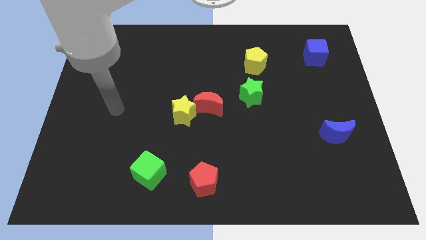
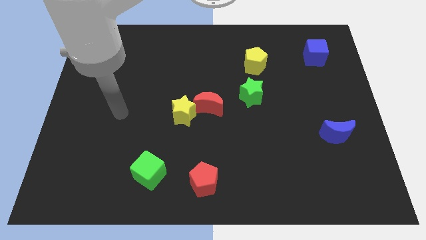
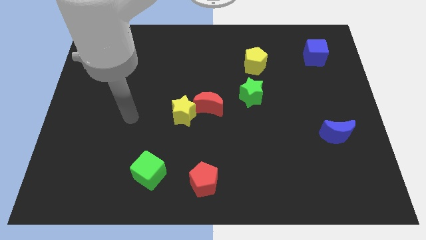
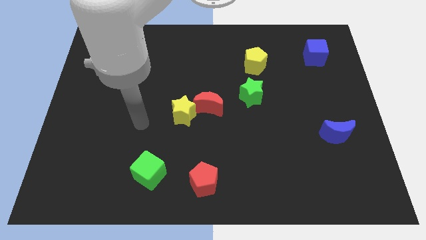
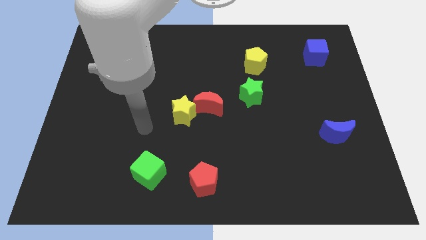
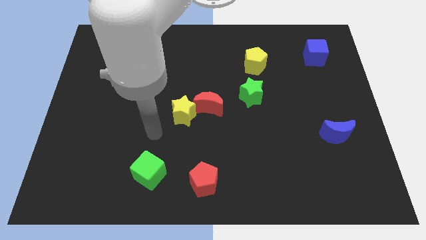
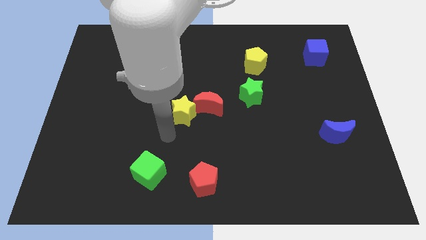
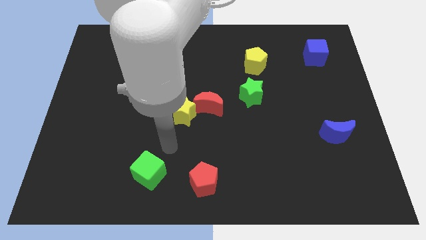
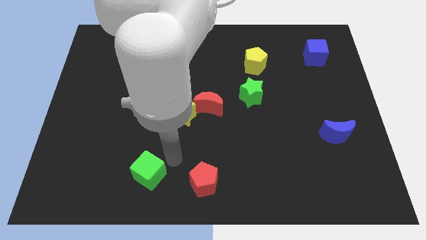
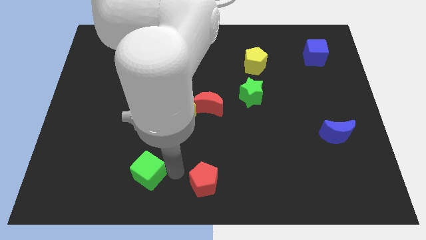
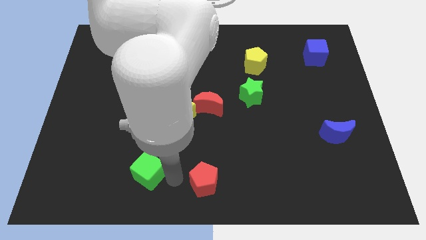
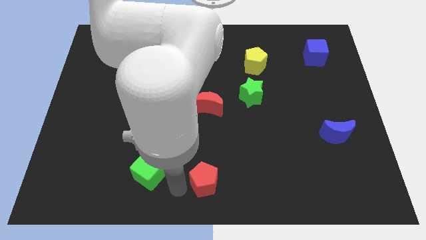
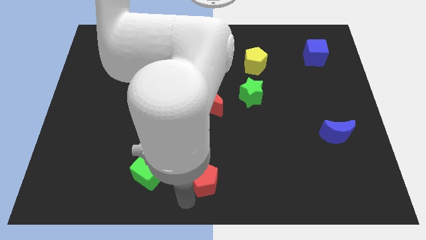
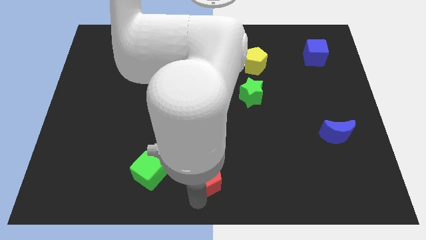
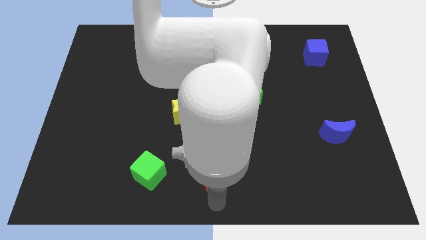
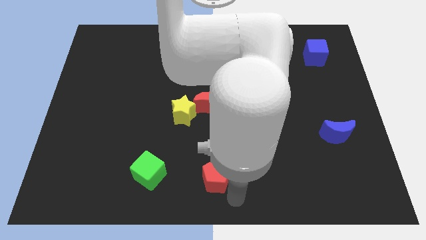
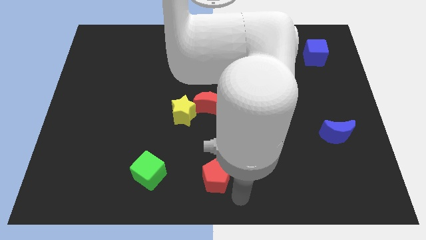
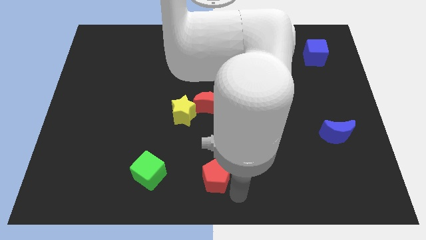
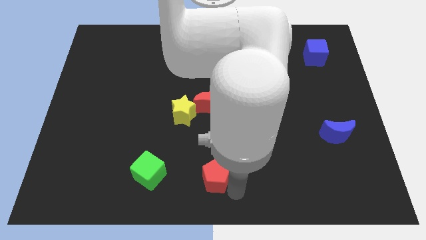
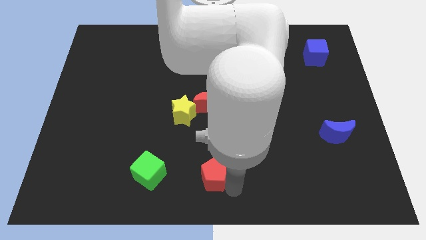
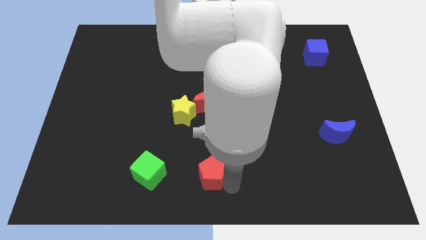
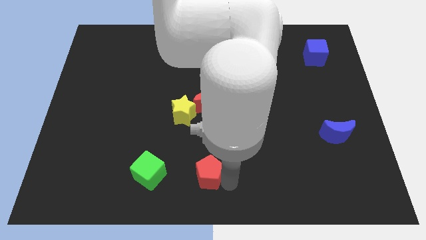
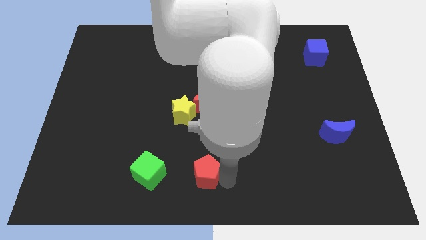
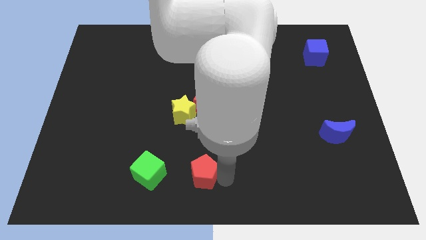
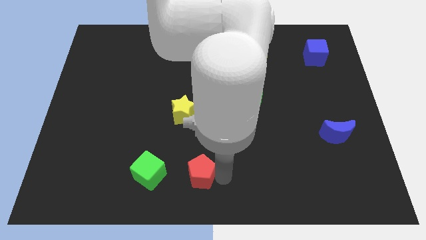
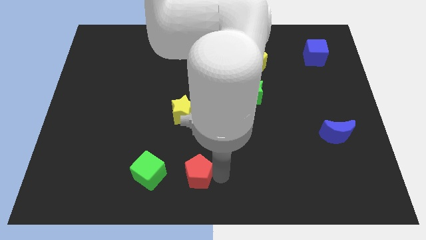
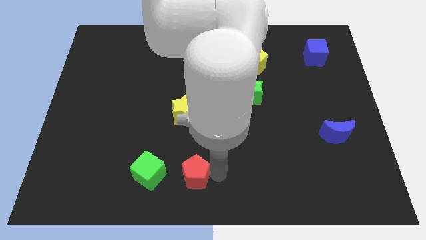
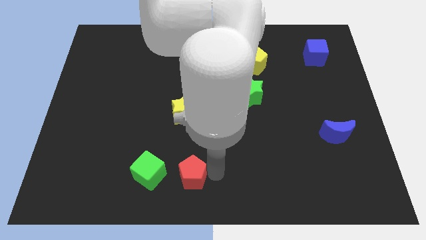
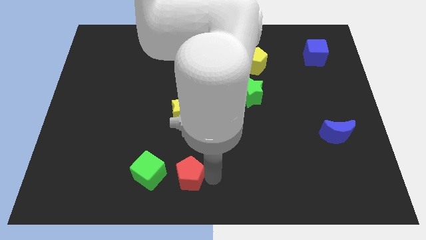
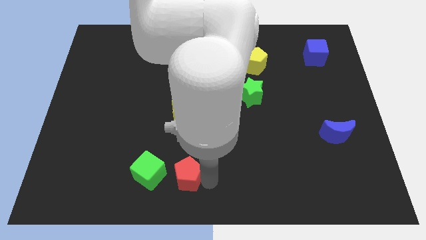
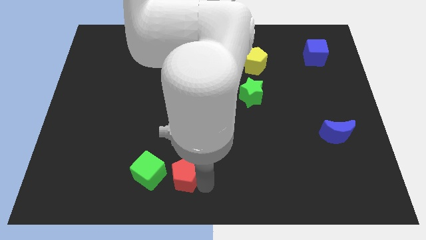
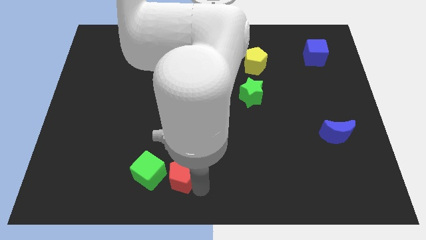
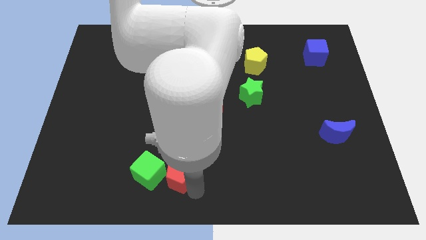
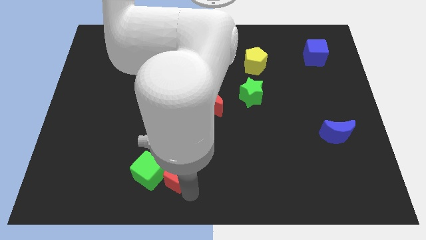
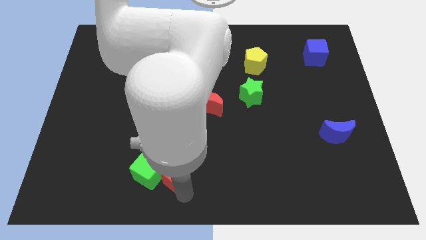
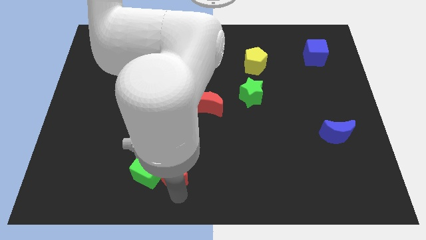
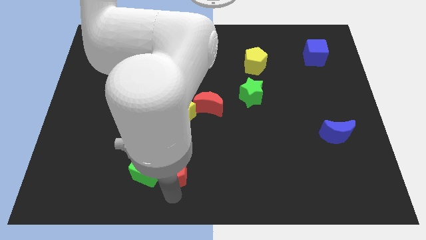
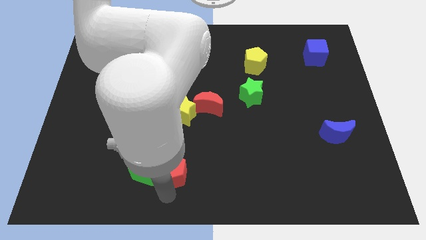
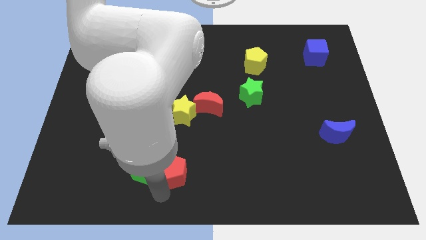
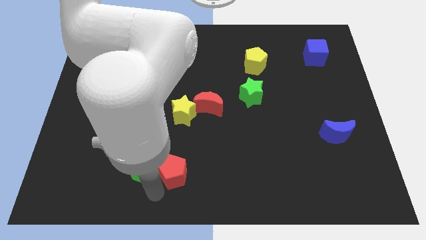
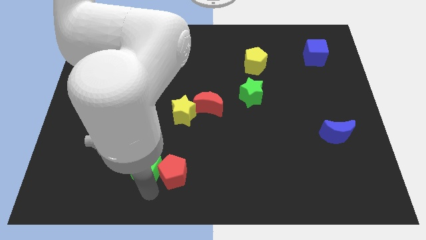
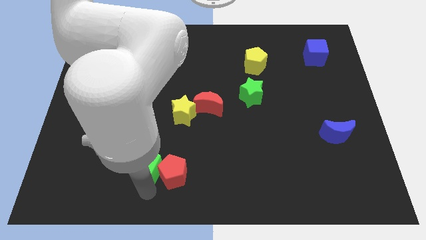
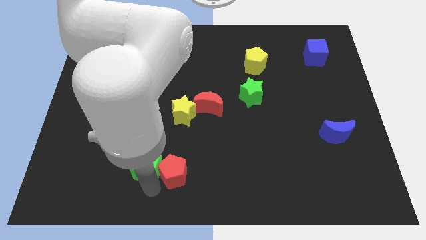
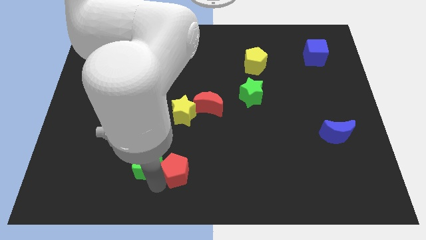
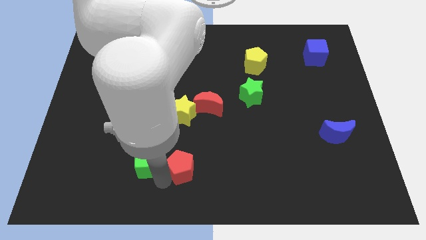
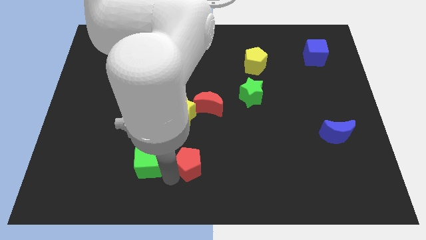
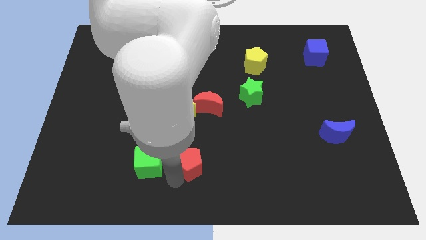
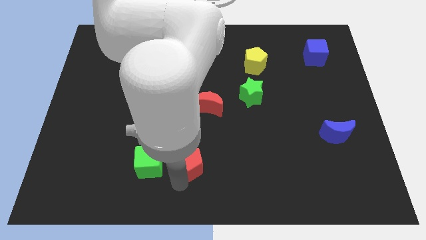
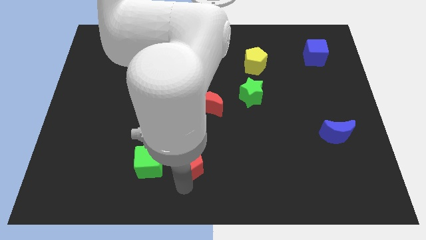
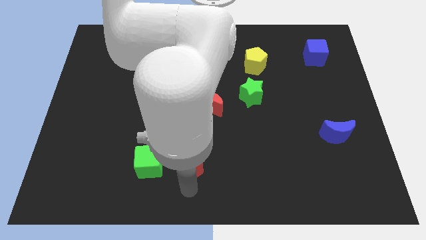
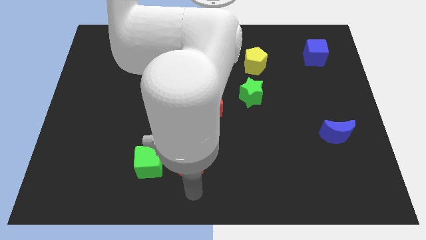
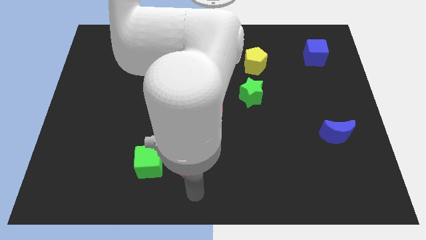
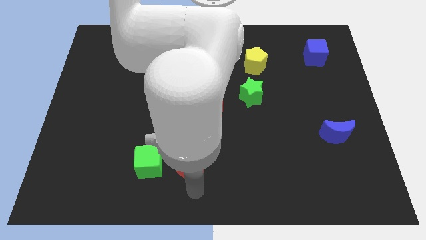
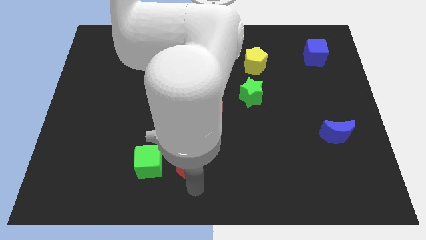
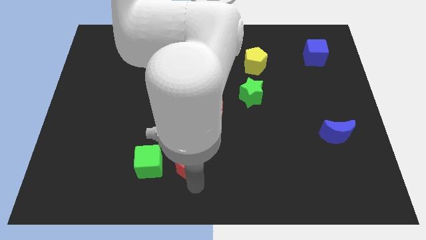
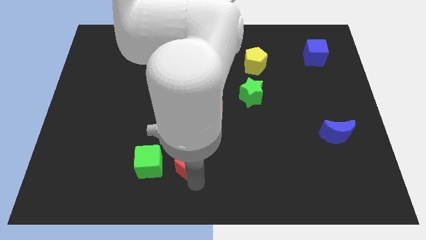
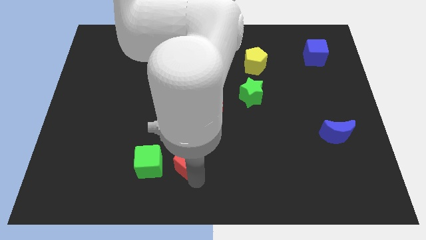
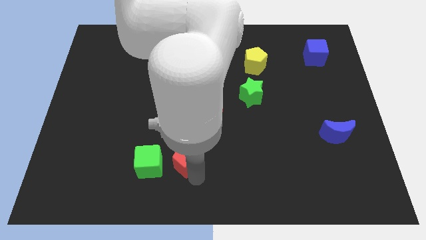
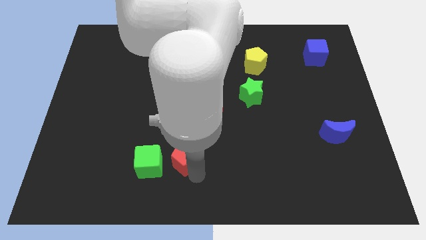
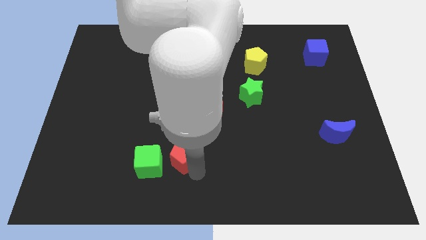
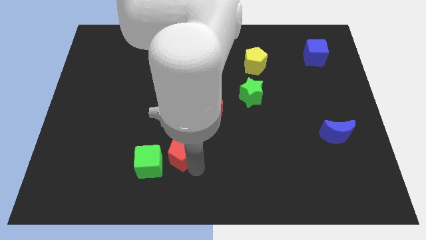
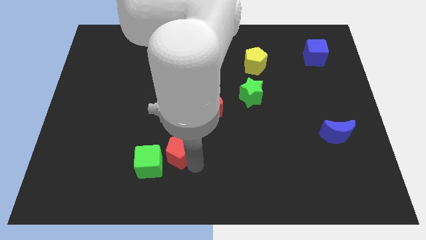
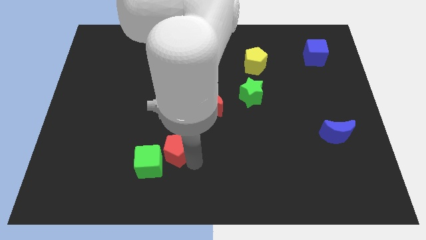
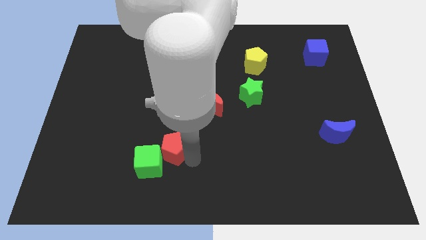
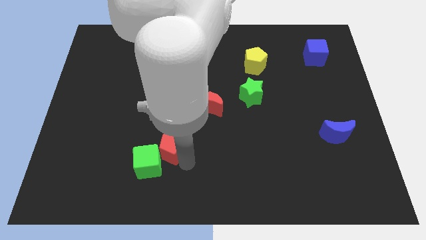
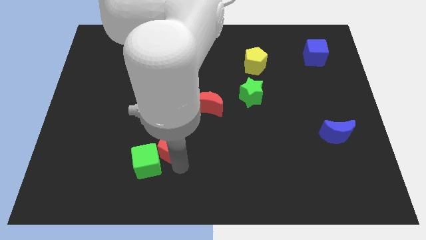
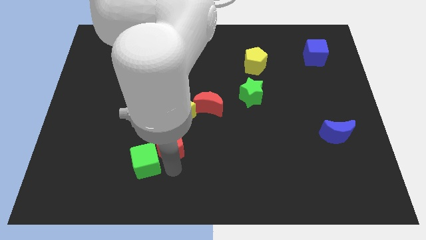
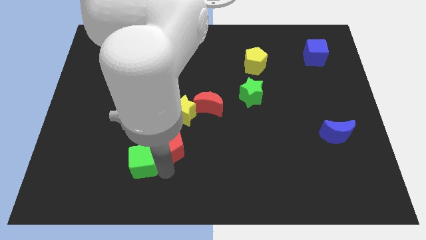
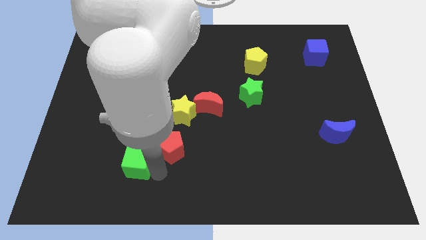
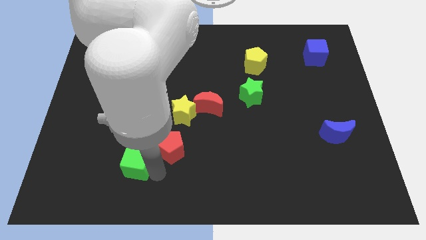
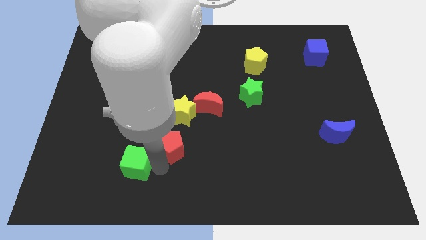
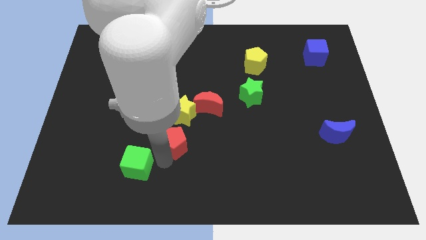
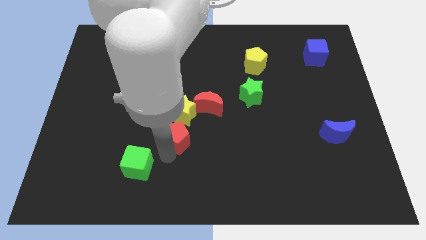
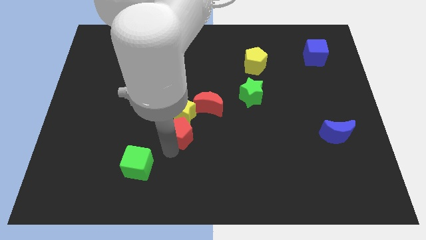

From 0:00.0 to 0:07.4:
put the red pentagon to the yellow star
